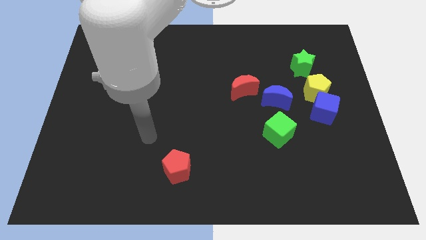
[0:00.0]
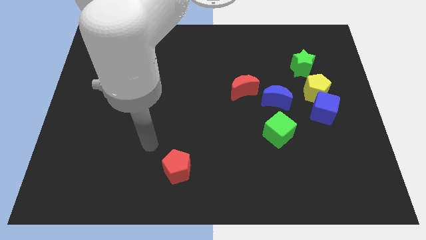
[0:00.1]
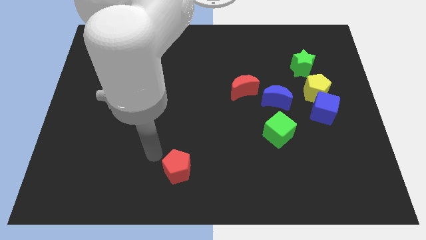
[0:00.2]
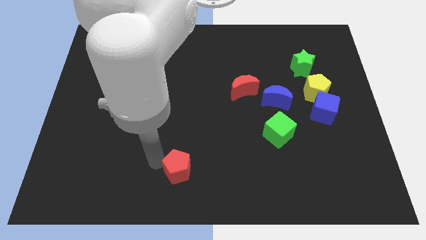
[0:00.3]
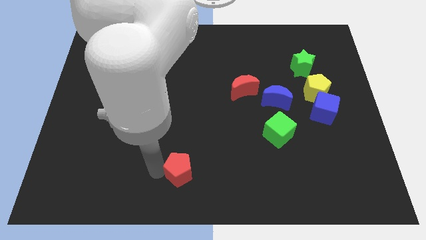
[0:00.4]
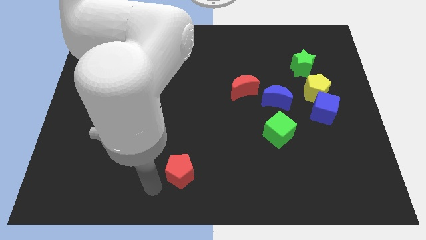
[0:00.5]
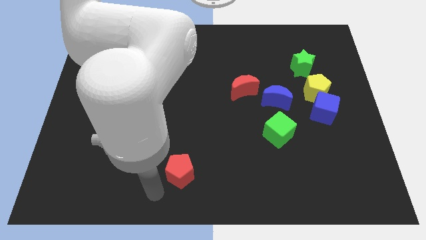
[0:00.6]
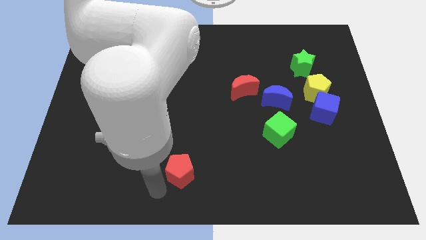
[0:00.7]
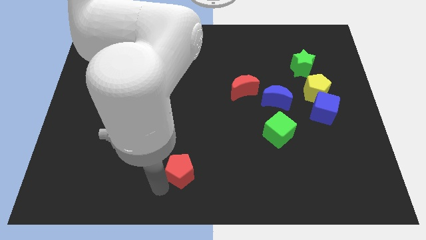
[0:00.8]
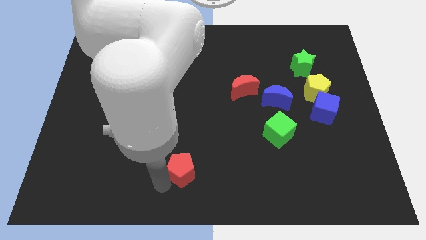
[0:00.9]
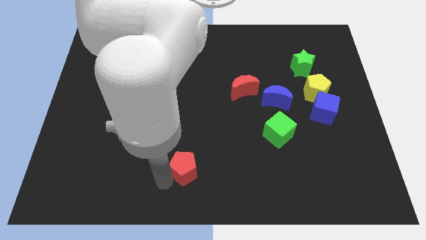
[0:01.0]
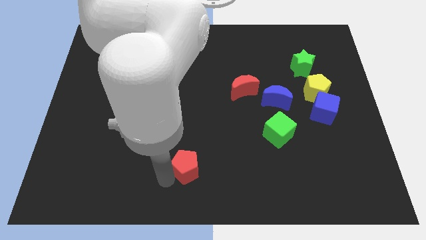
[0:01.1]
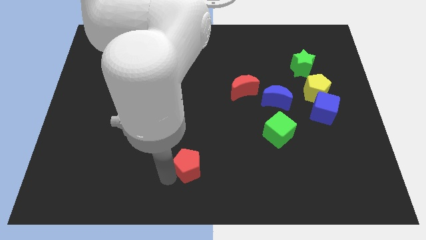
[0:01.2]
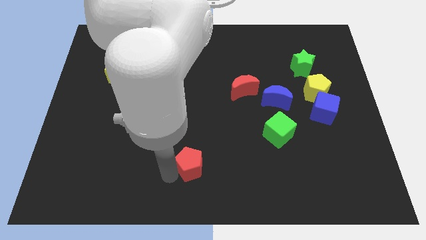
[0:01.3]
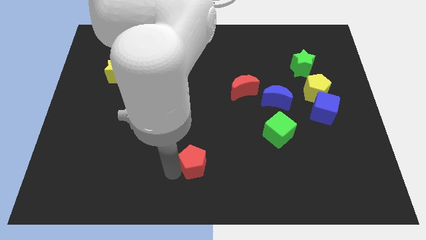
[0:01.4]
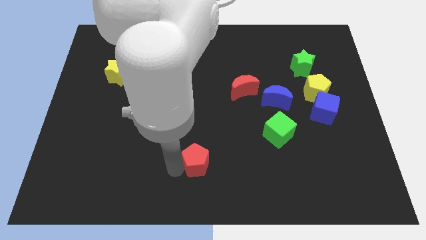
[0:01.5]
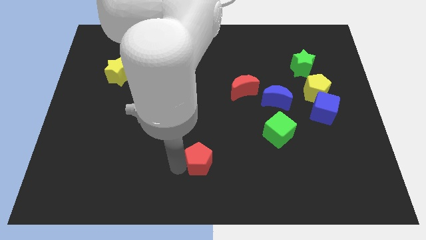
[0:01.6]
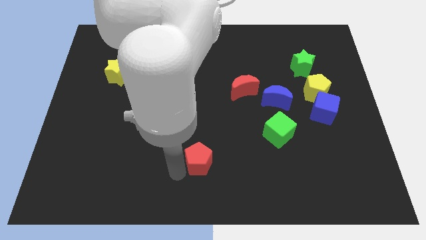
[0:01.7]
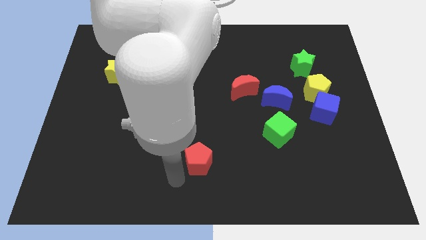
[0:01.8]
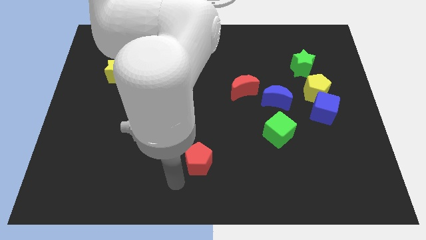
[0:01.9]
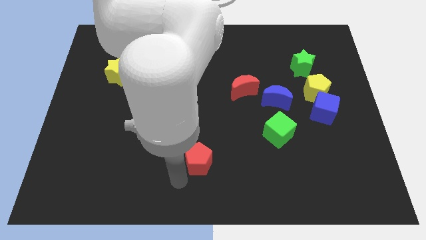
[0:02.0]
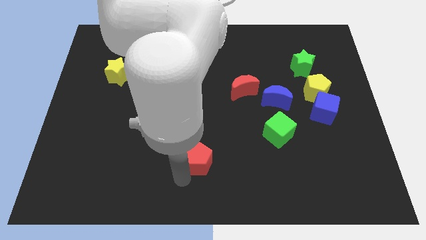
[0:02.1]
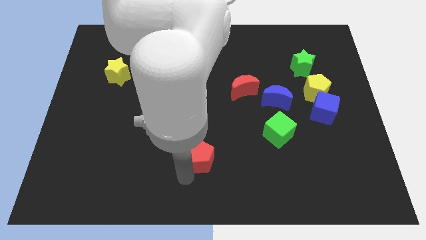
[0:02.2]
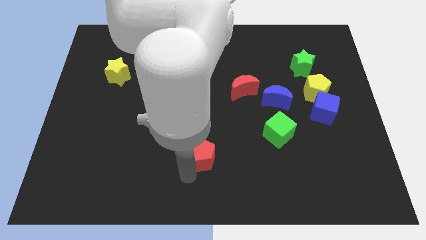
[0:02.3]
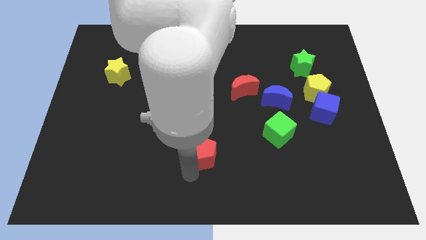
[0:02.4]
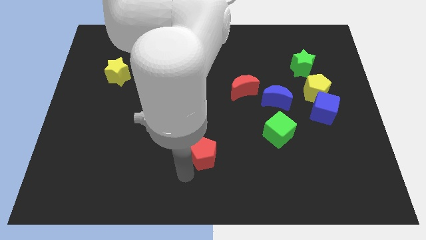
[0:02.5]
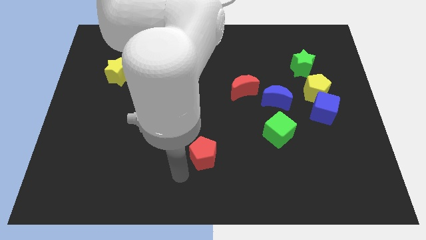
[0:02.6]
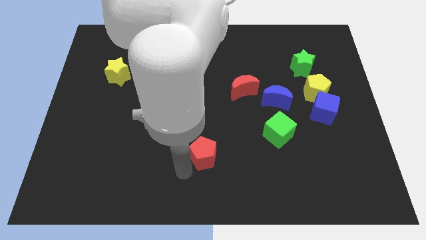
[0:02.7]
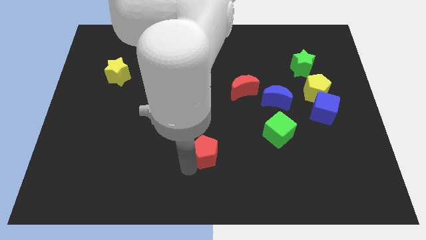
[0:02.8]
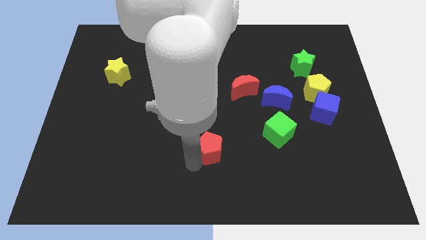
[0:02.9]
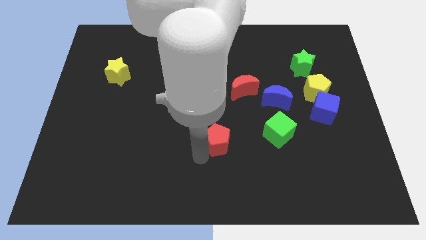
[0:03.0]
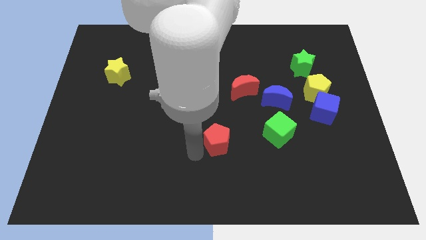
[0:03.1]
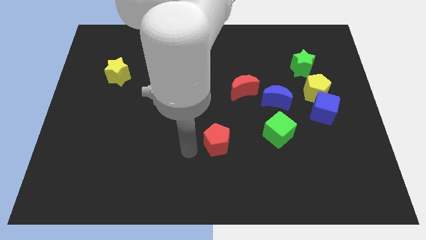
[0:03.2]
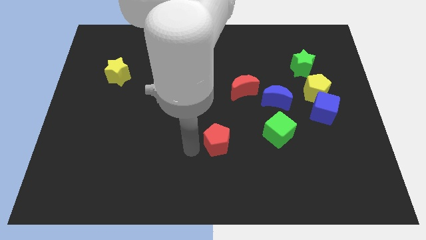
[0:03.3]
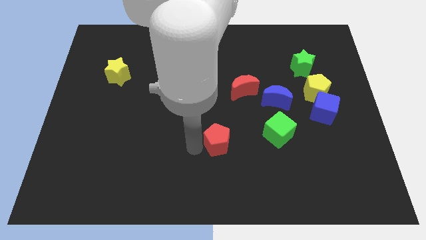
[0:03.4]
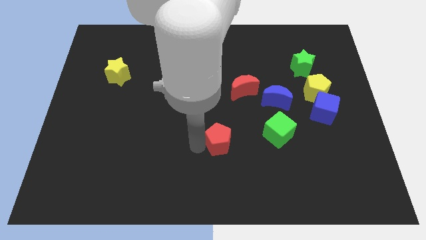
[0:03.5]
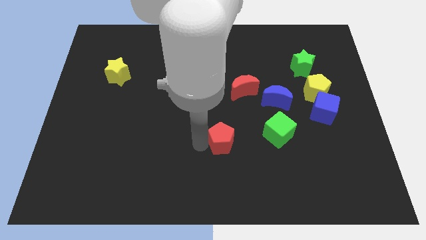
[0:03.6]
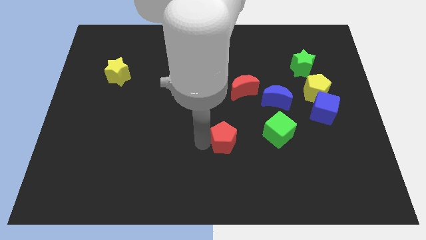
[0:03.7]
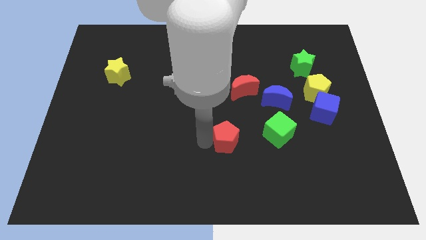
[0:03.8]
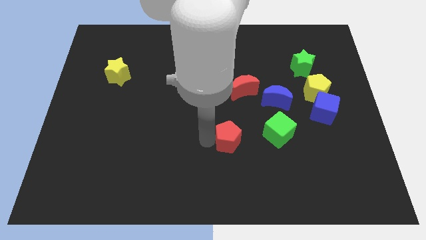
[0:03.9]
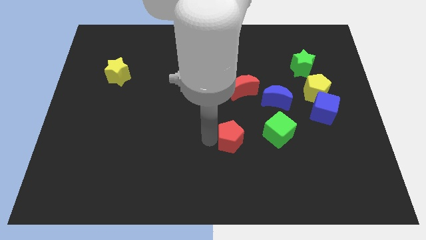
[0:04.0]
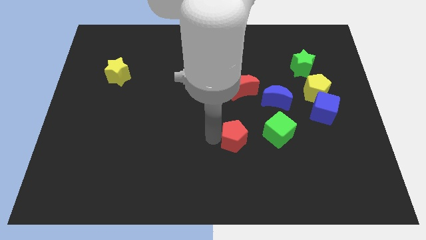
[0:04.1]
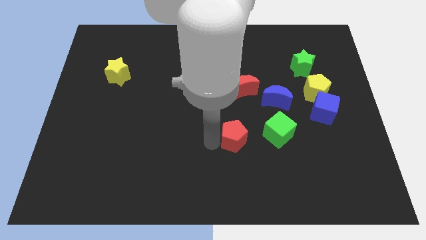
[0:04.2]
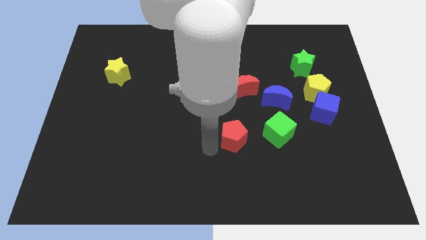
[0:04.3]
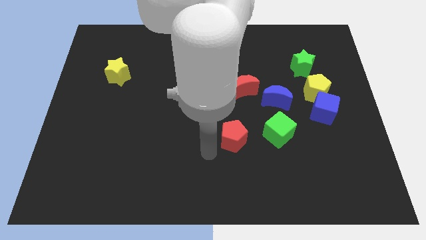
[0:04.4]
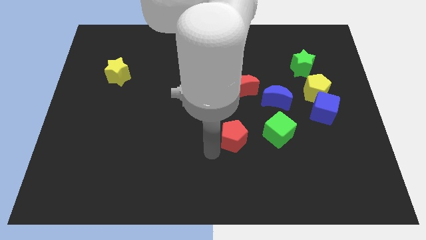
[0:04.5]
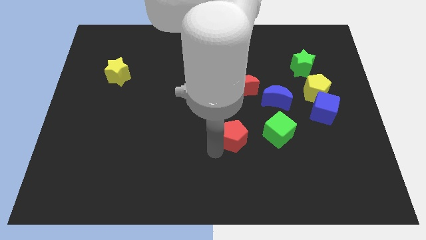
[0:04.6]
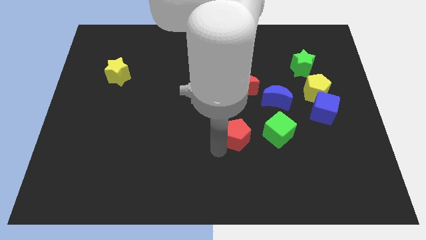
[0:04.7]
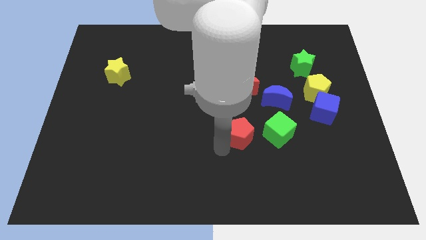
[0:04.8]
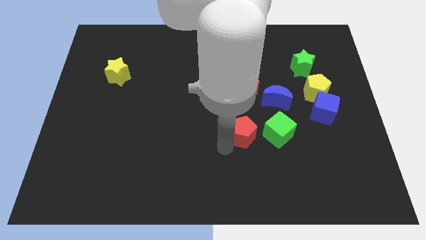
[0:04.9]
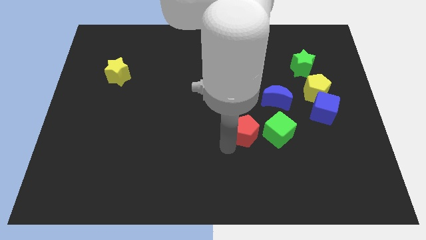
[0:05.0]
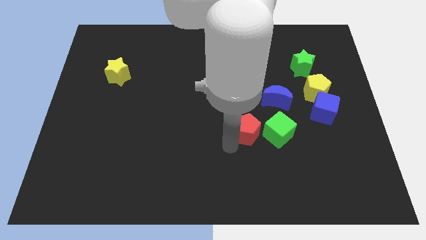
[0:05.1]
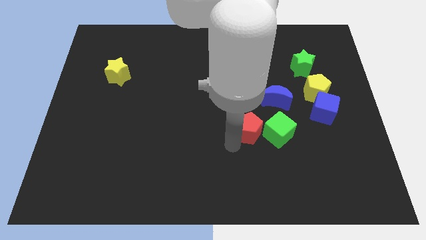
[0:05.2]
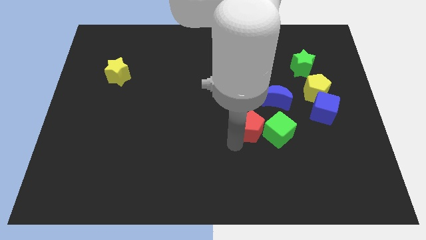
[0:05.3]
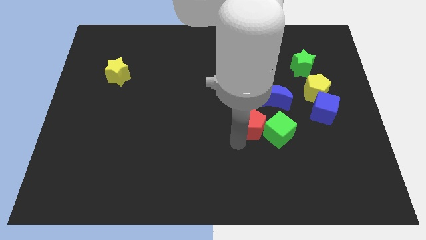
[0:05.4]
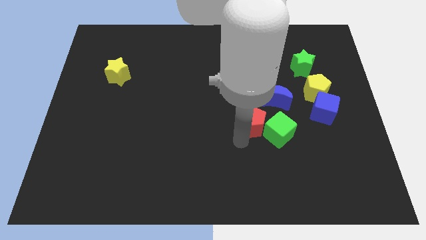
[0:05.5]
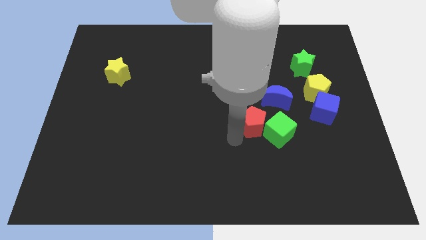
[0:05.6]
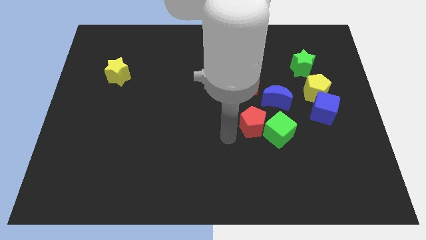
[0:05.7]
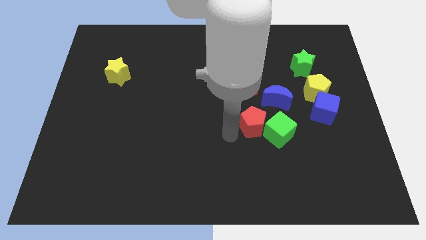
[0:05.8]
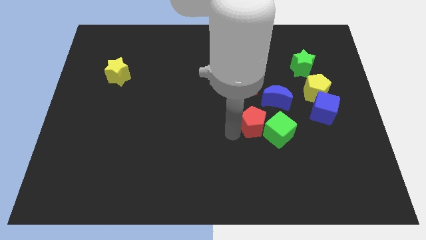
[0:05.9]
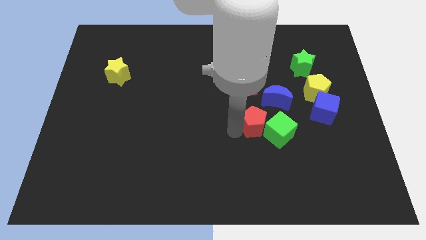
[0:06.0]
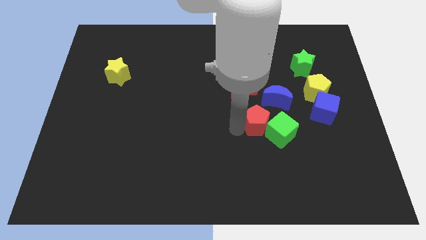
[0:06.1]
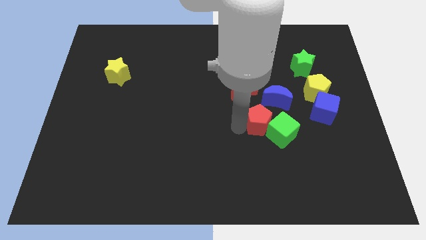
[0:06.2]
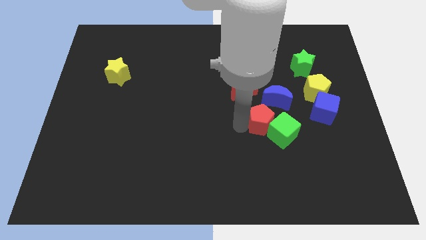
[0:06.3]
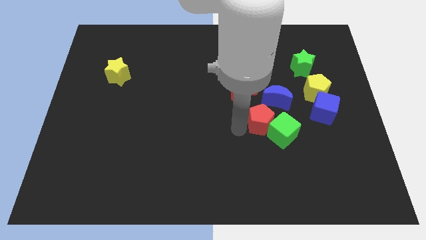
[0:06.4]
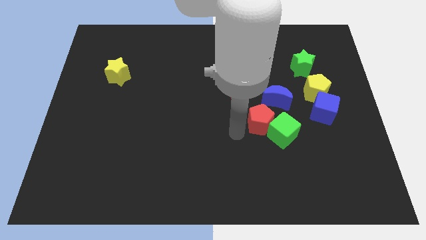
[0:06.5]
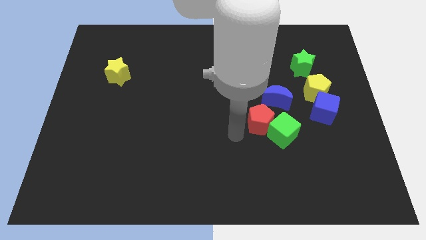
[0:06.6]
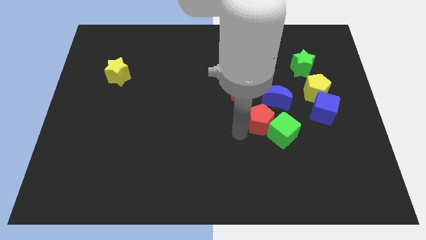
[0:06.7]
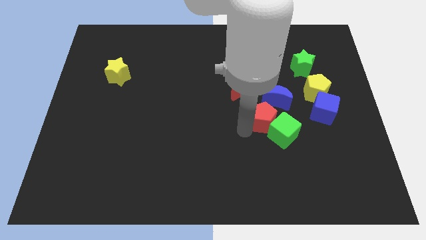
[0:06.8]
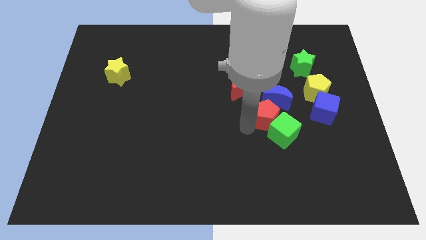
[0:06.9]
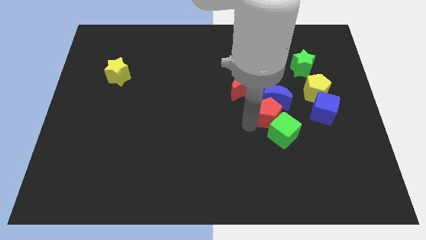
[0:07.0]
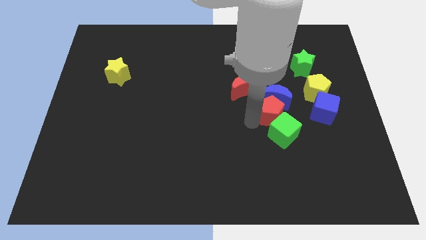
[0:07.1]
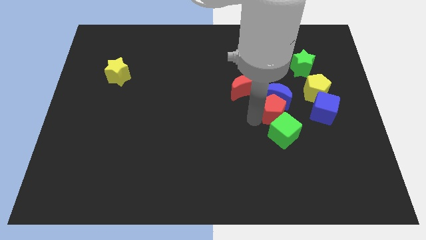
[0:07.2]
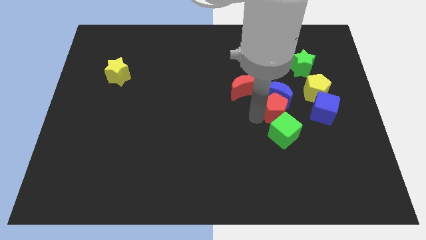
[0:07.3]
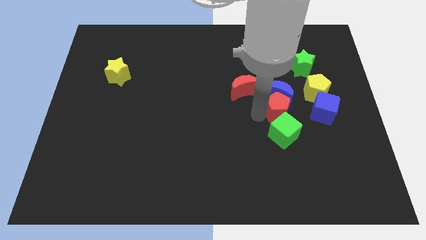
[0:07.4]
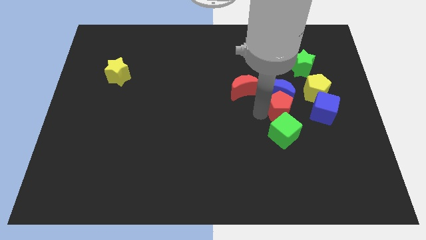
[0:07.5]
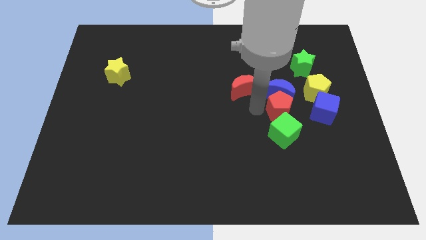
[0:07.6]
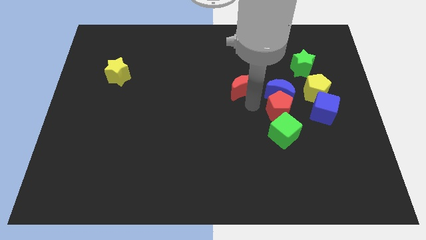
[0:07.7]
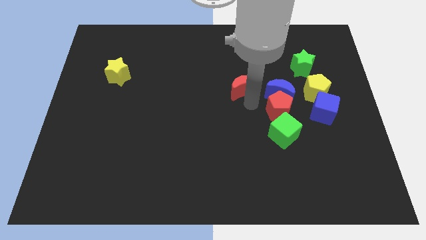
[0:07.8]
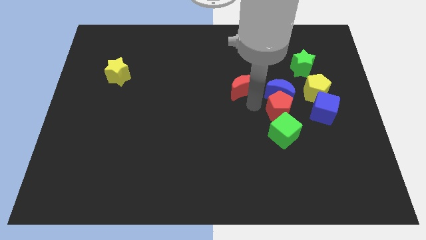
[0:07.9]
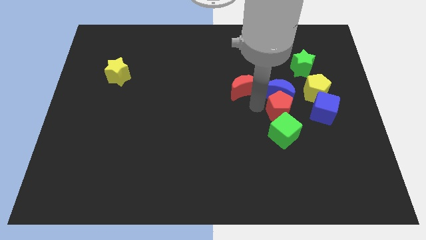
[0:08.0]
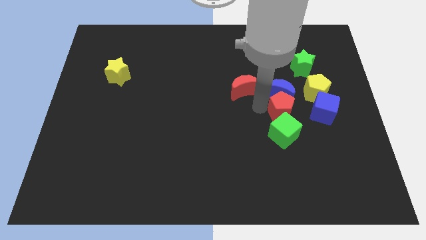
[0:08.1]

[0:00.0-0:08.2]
slide the red pentagon to the top right of the green cube
